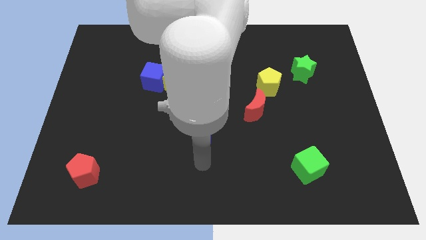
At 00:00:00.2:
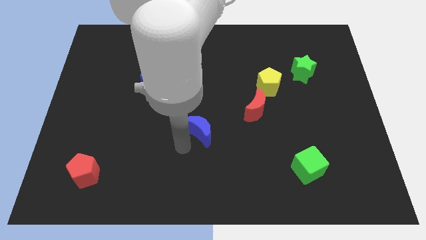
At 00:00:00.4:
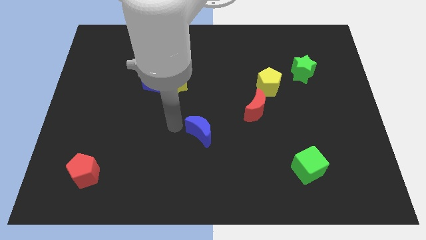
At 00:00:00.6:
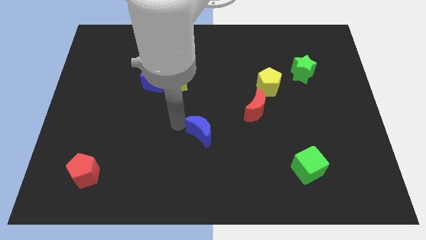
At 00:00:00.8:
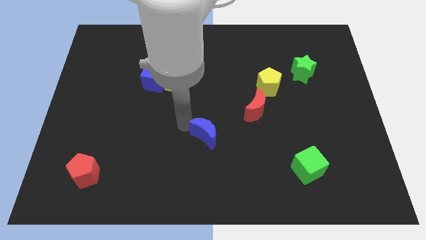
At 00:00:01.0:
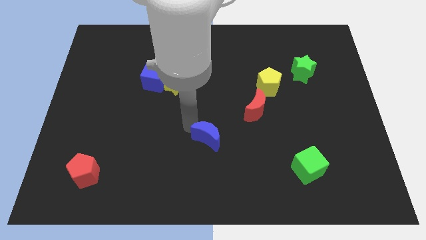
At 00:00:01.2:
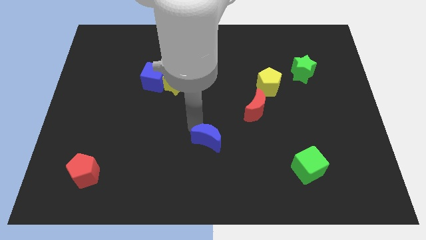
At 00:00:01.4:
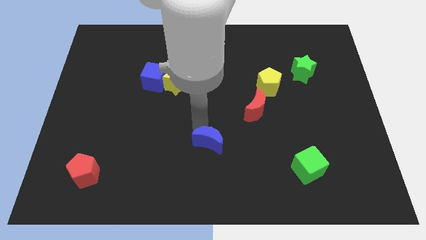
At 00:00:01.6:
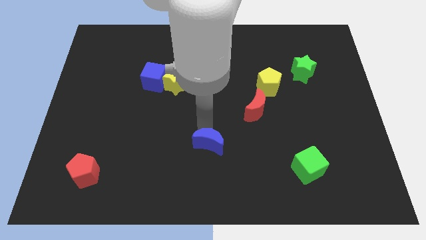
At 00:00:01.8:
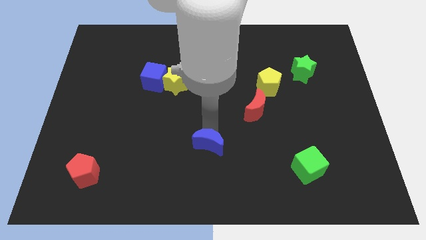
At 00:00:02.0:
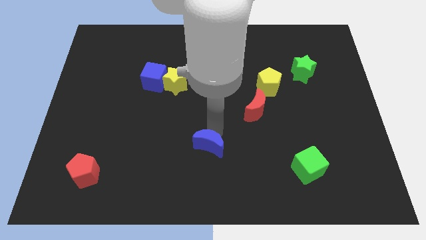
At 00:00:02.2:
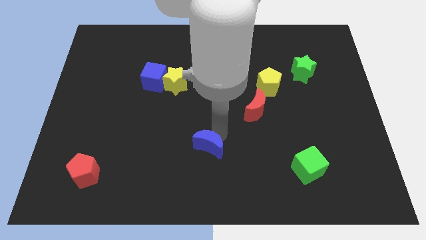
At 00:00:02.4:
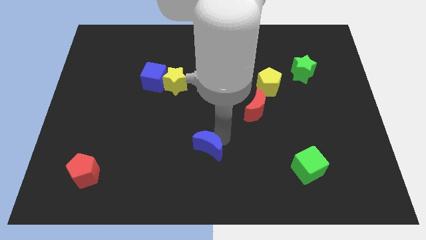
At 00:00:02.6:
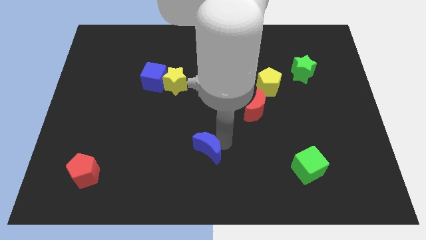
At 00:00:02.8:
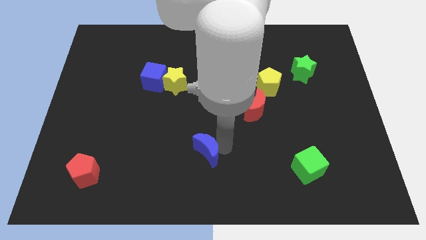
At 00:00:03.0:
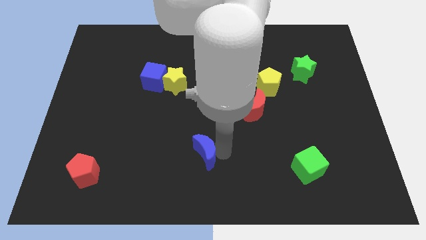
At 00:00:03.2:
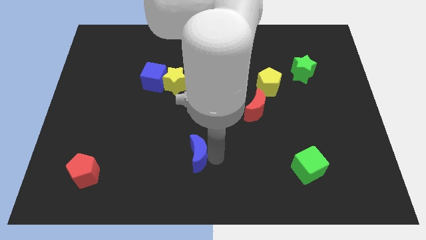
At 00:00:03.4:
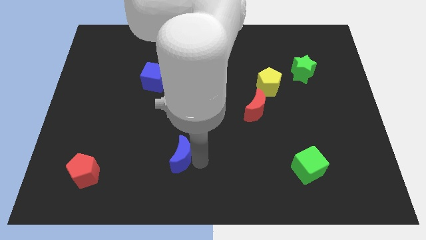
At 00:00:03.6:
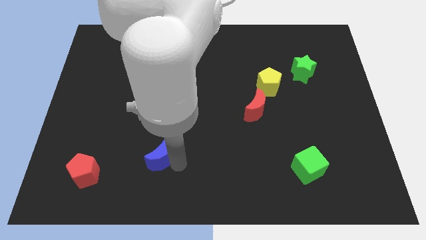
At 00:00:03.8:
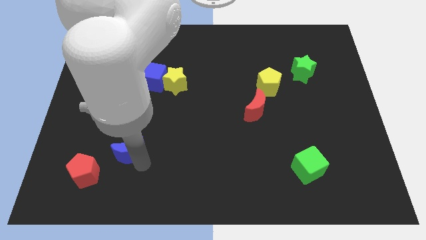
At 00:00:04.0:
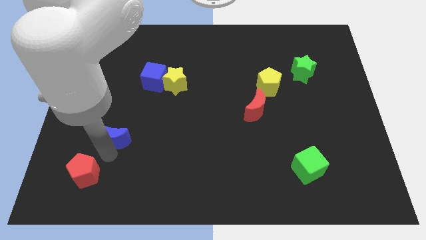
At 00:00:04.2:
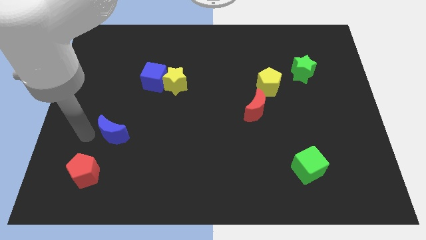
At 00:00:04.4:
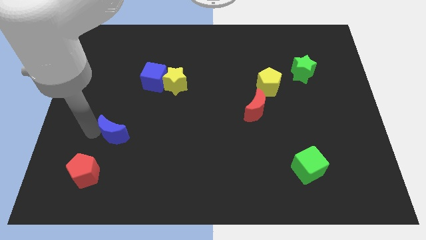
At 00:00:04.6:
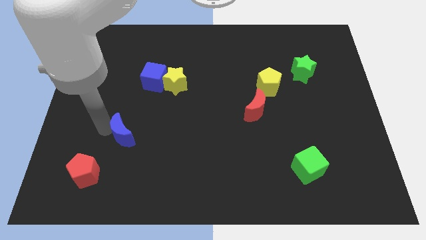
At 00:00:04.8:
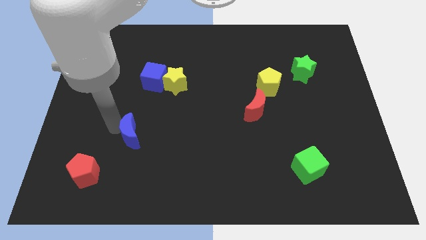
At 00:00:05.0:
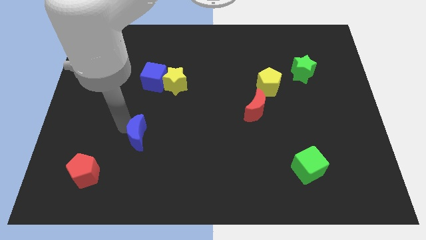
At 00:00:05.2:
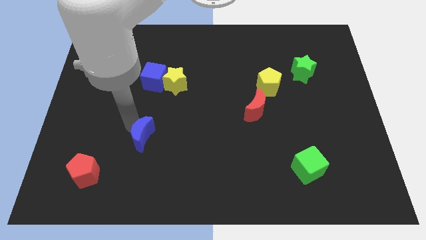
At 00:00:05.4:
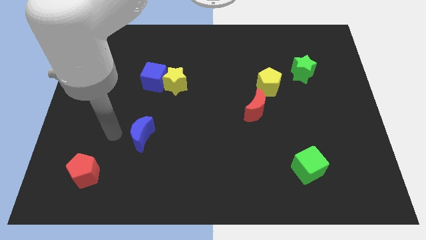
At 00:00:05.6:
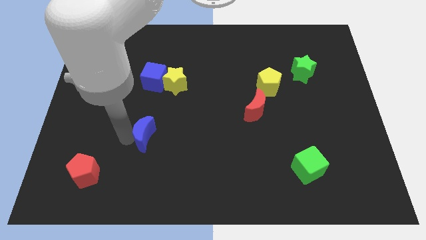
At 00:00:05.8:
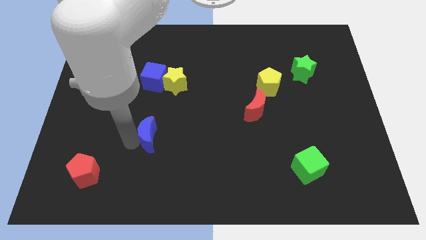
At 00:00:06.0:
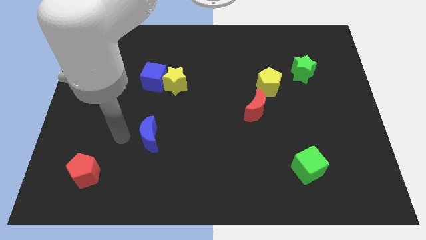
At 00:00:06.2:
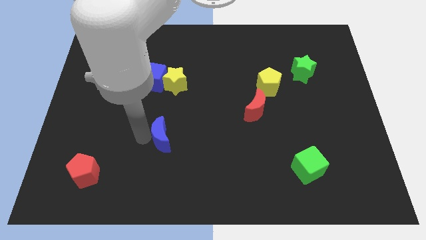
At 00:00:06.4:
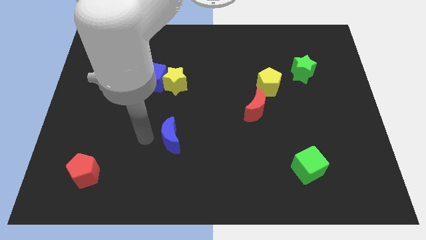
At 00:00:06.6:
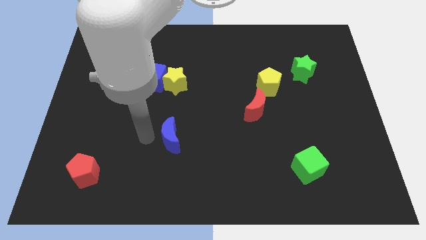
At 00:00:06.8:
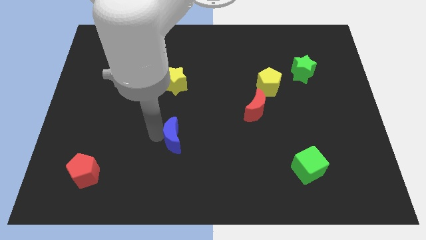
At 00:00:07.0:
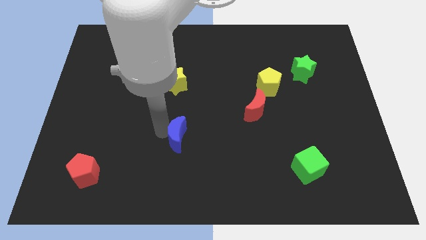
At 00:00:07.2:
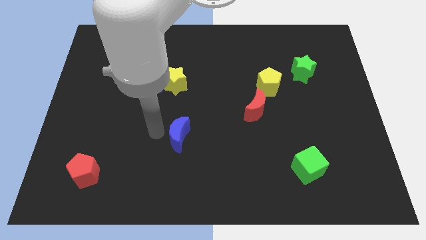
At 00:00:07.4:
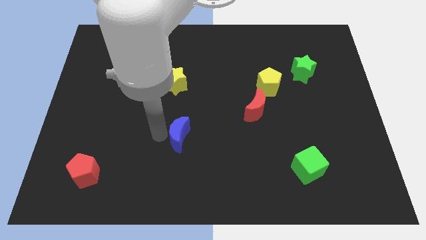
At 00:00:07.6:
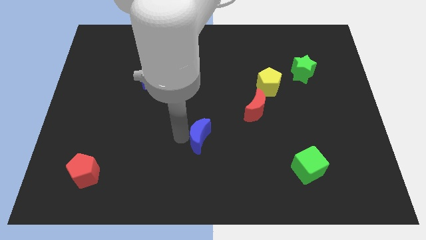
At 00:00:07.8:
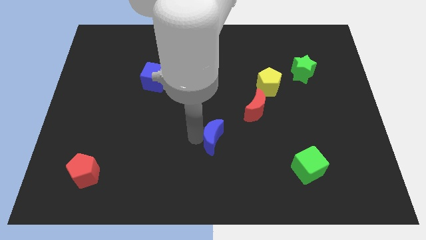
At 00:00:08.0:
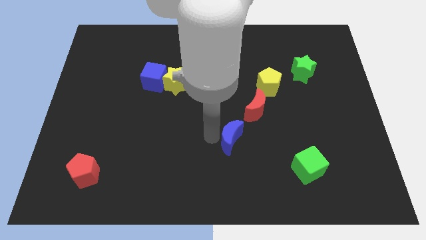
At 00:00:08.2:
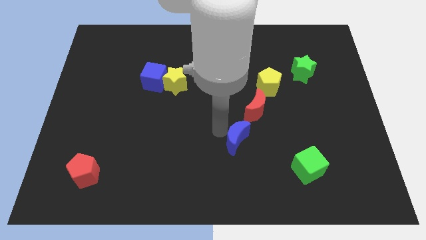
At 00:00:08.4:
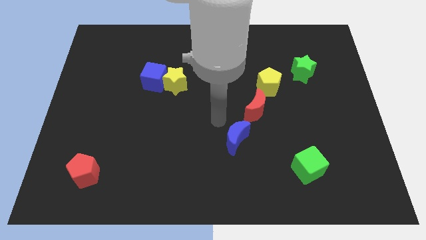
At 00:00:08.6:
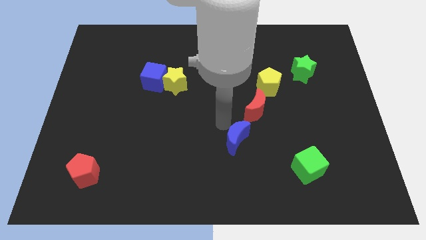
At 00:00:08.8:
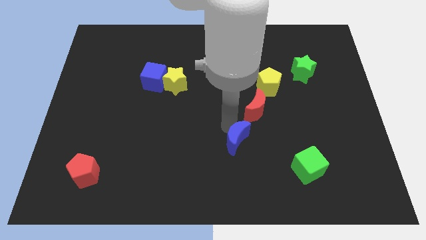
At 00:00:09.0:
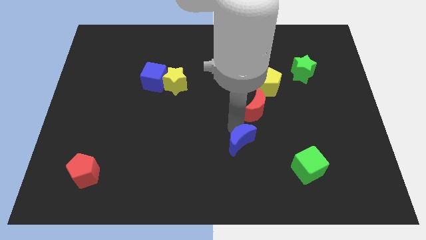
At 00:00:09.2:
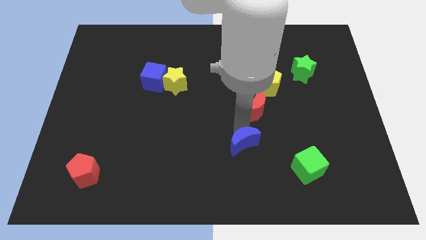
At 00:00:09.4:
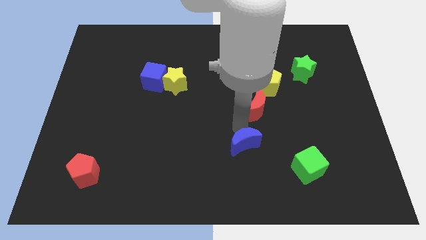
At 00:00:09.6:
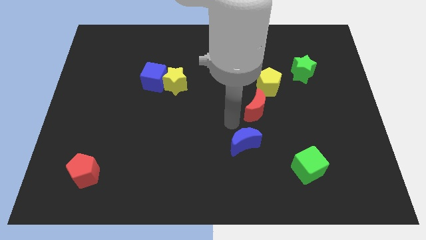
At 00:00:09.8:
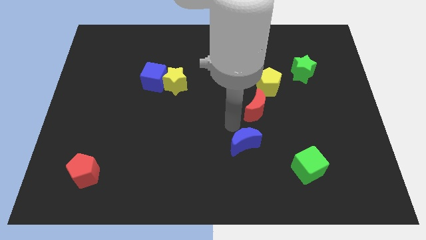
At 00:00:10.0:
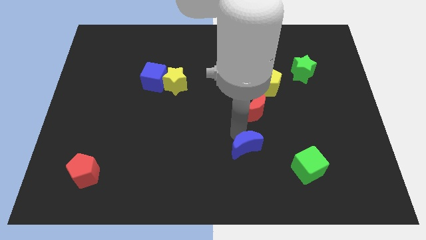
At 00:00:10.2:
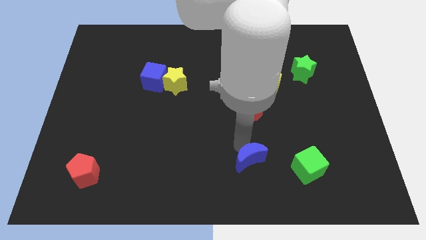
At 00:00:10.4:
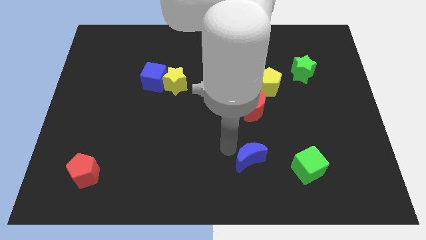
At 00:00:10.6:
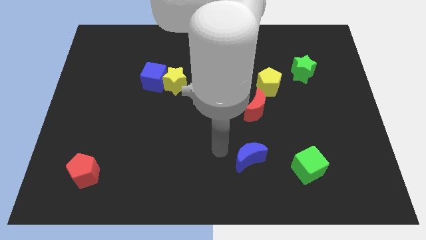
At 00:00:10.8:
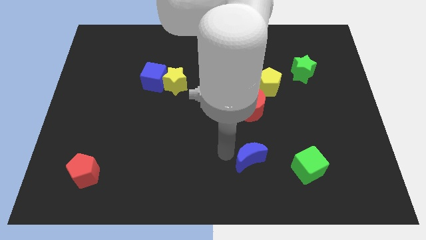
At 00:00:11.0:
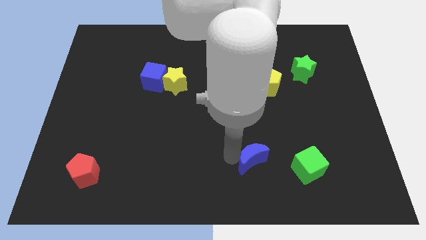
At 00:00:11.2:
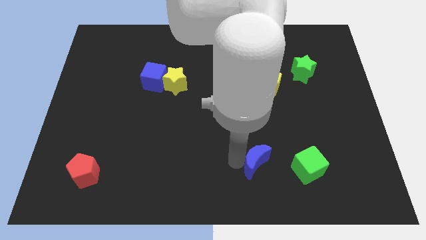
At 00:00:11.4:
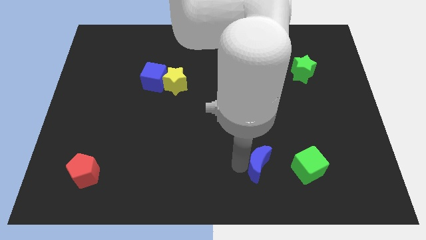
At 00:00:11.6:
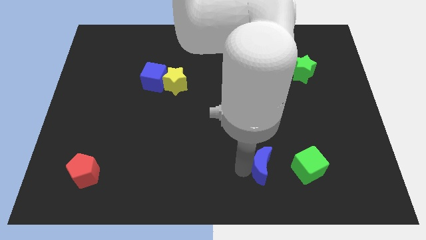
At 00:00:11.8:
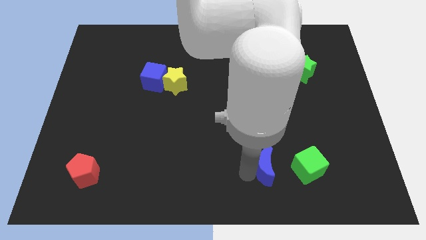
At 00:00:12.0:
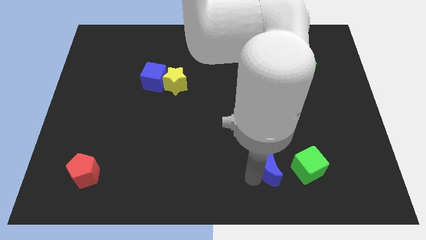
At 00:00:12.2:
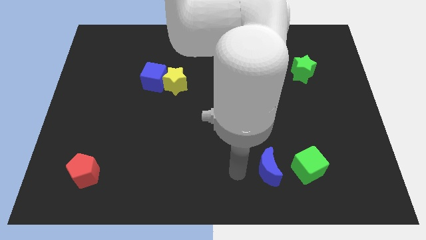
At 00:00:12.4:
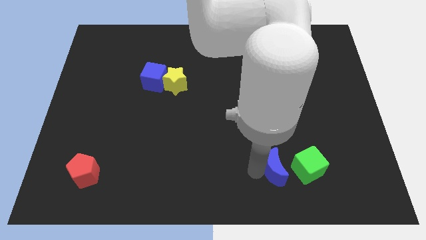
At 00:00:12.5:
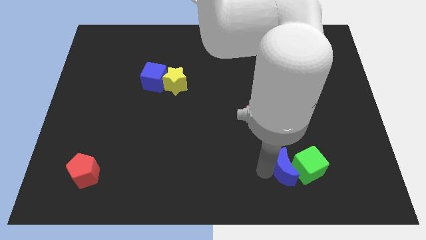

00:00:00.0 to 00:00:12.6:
push the blue moon towards the green cube

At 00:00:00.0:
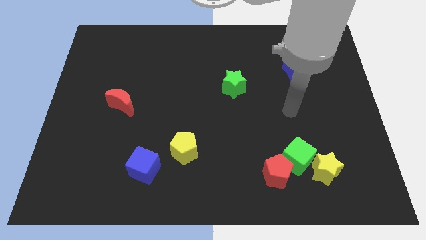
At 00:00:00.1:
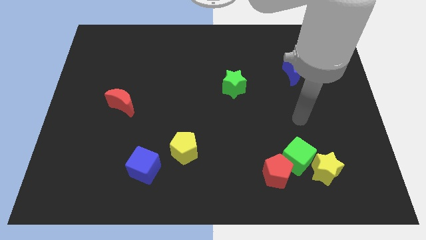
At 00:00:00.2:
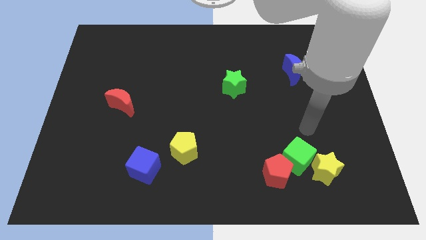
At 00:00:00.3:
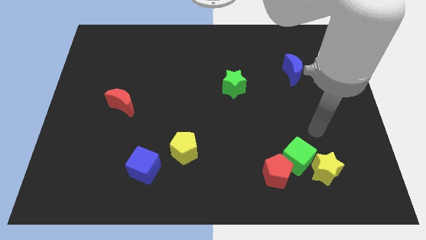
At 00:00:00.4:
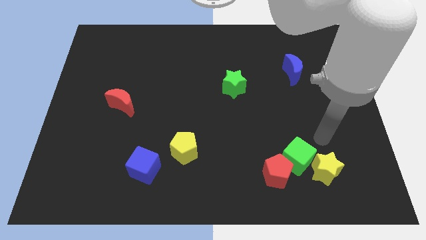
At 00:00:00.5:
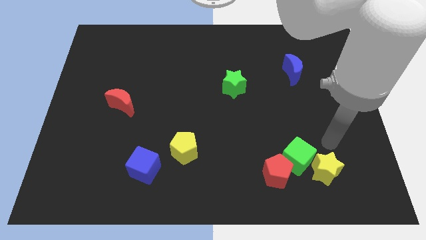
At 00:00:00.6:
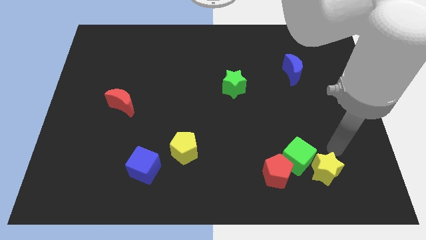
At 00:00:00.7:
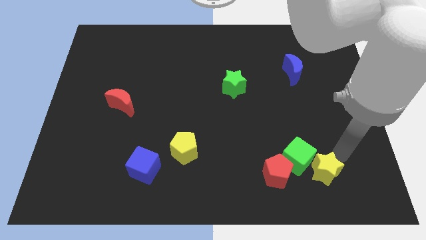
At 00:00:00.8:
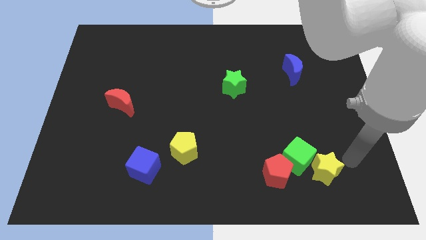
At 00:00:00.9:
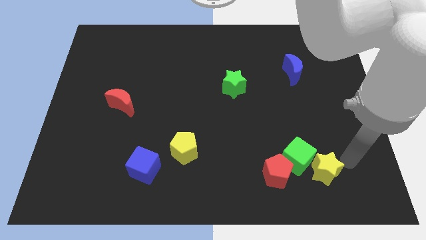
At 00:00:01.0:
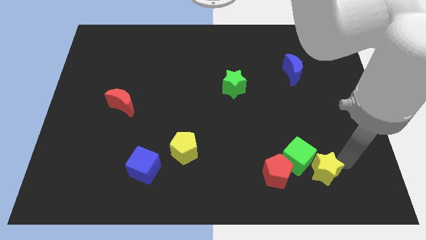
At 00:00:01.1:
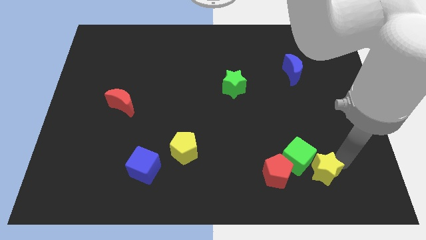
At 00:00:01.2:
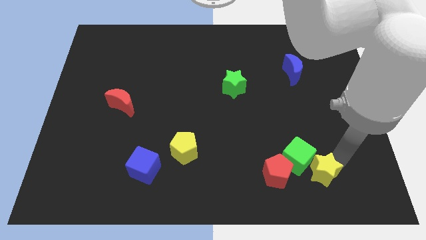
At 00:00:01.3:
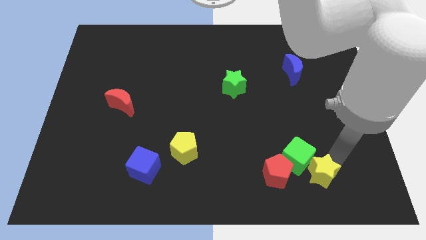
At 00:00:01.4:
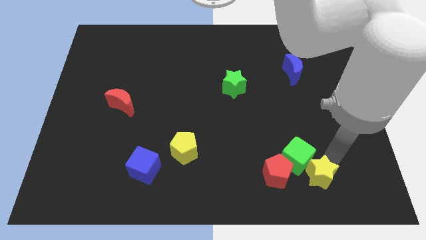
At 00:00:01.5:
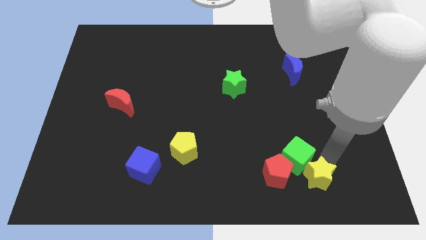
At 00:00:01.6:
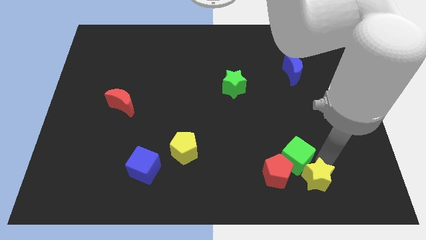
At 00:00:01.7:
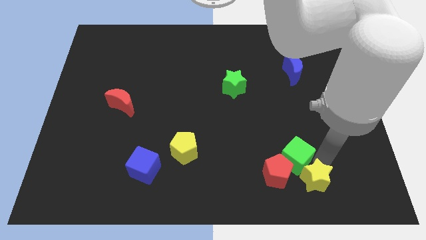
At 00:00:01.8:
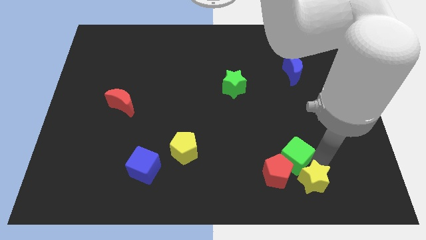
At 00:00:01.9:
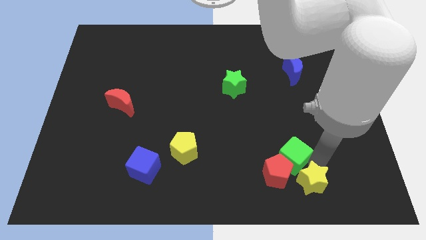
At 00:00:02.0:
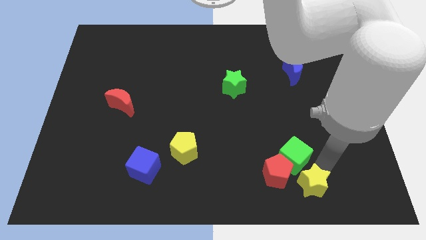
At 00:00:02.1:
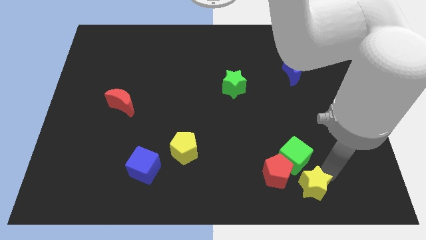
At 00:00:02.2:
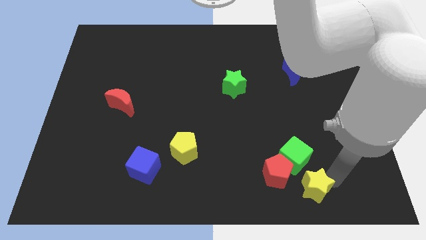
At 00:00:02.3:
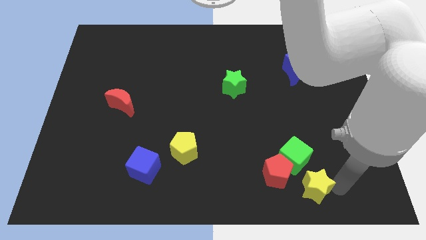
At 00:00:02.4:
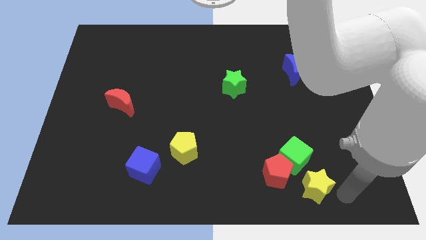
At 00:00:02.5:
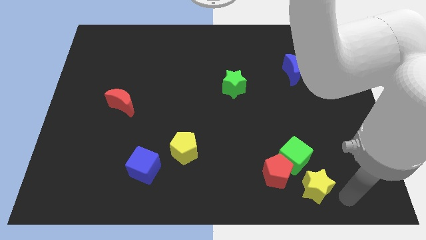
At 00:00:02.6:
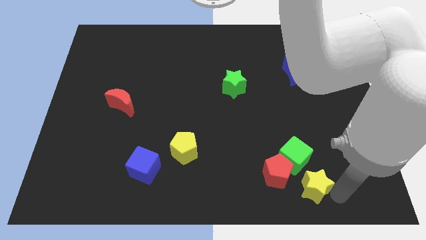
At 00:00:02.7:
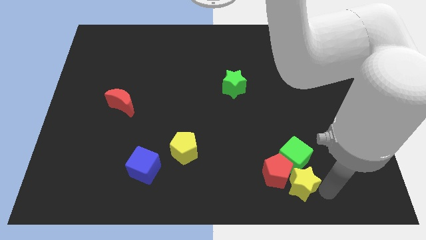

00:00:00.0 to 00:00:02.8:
slide the yellow star to the red pentagon
